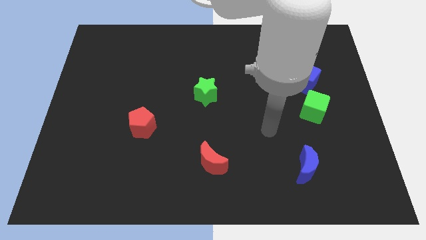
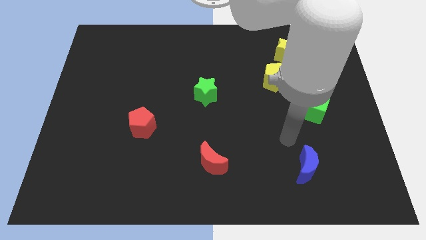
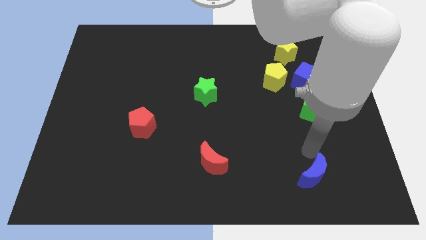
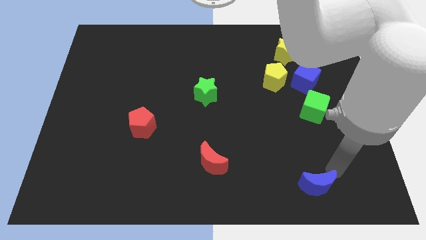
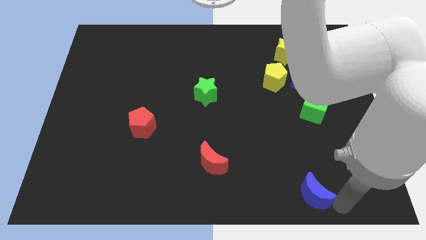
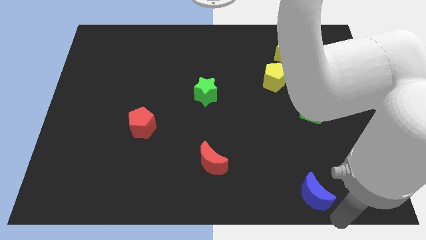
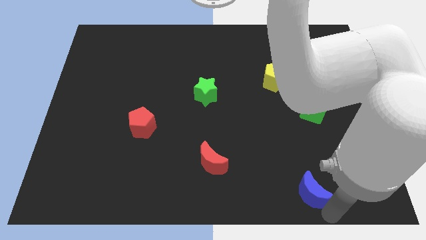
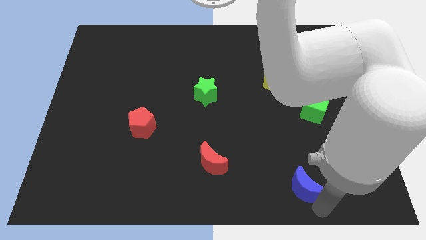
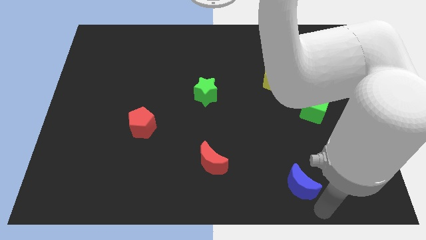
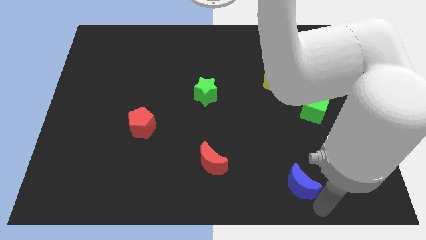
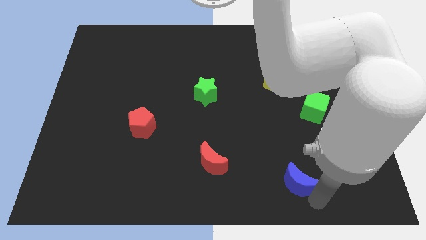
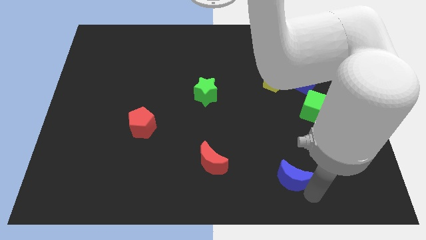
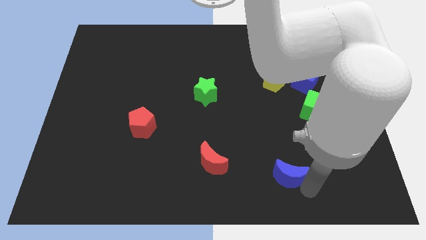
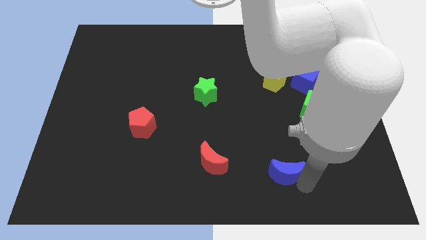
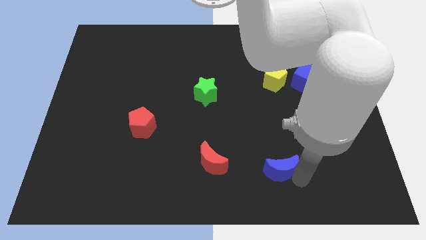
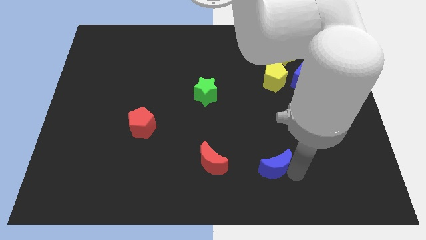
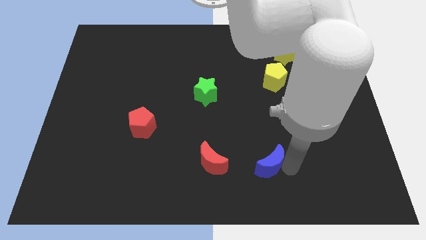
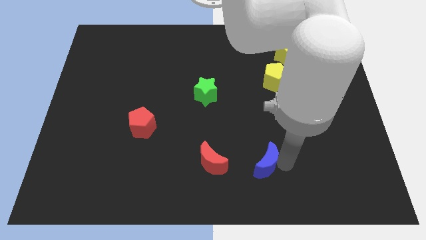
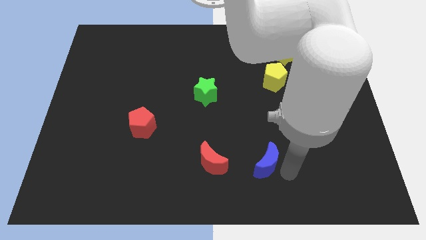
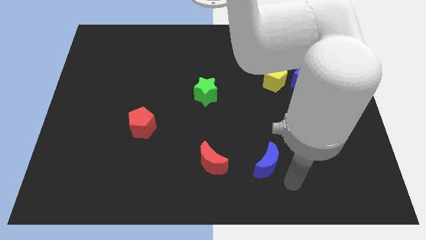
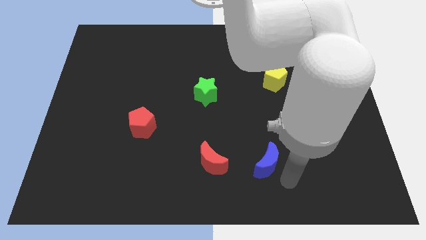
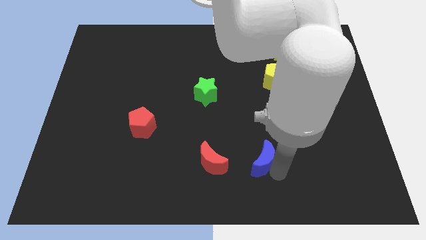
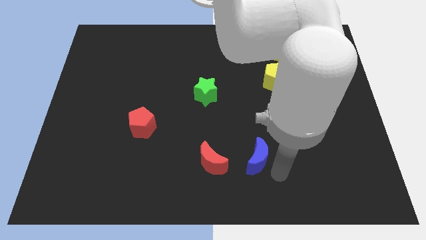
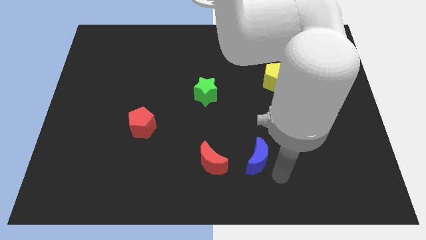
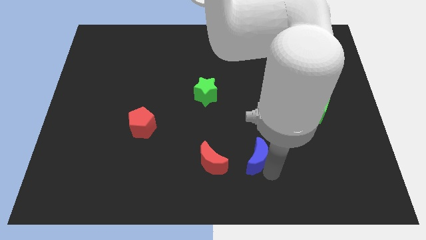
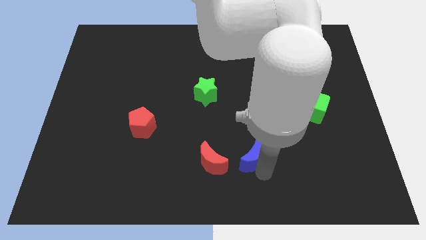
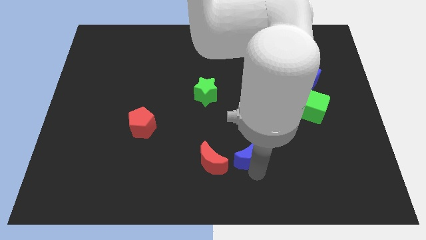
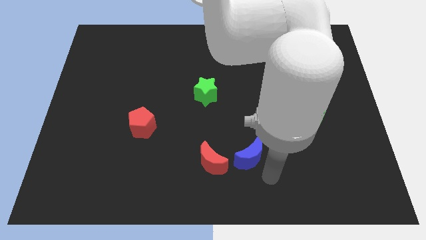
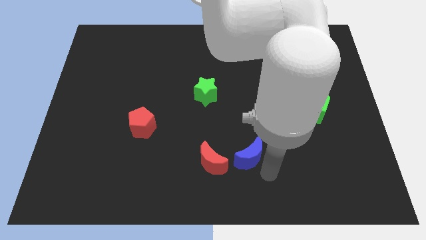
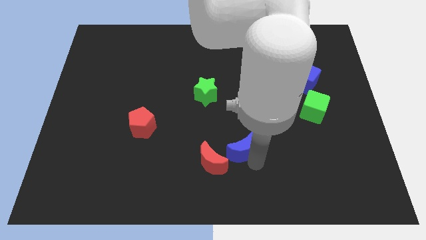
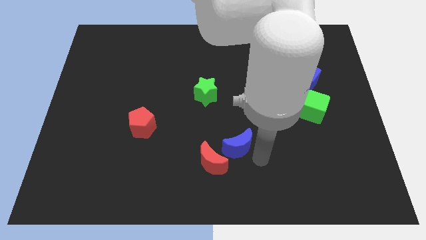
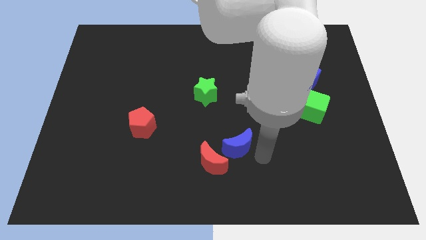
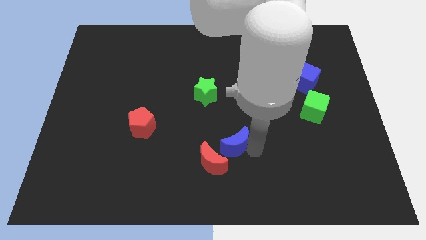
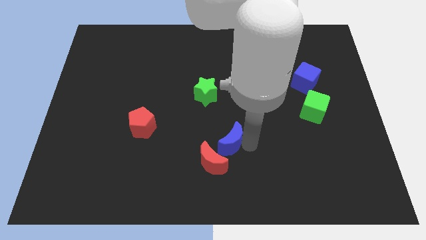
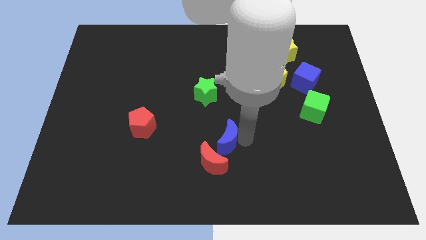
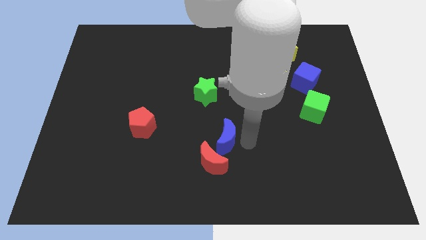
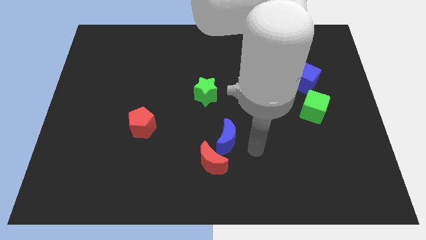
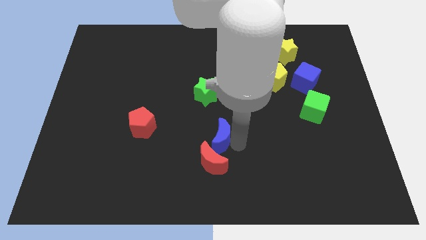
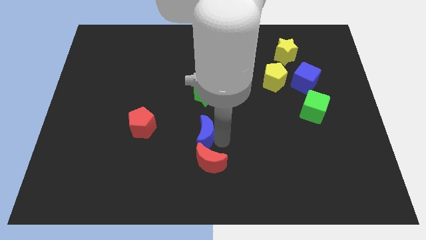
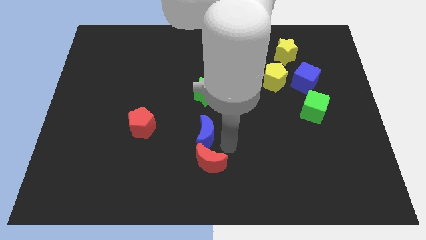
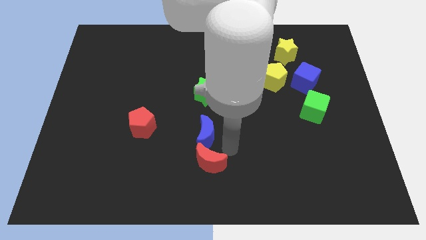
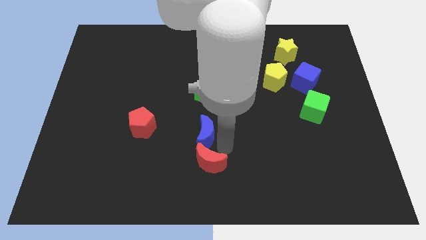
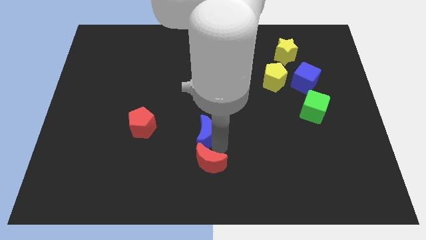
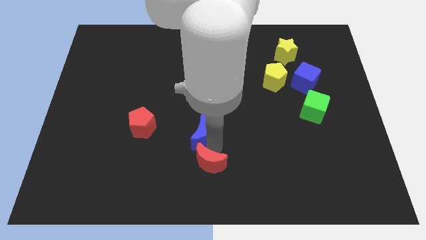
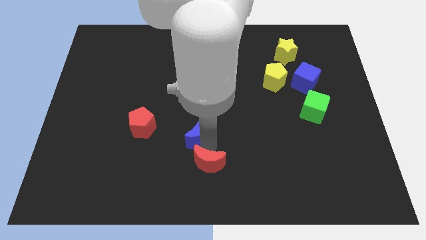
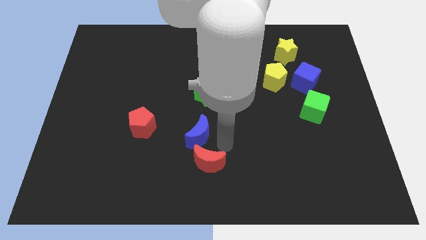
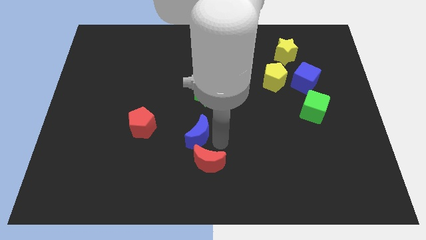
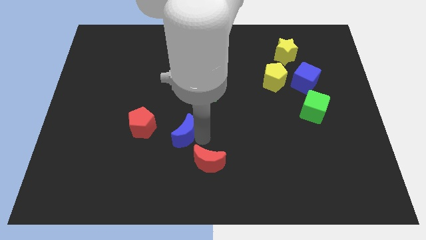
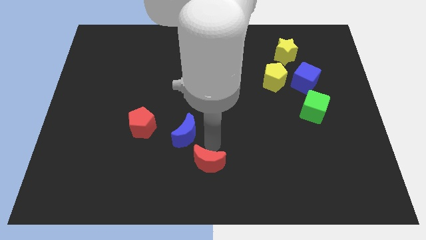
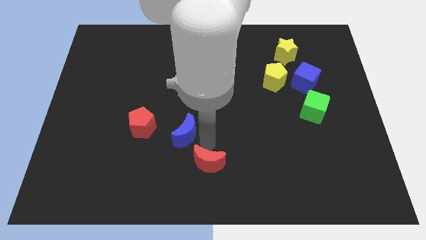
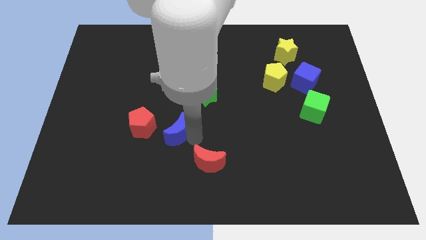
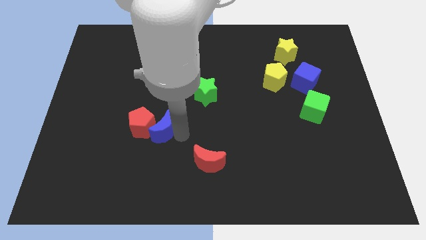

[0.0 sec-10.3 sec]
push the blue moon next to the red pentagon

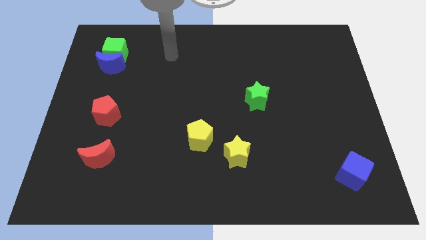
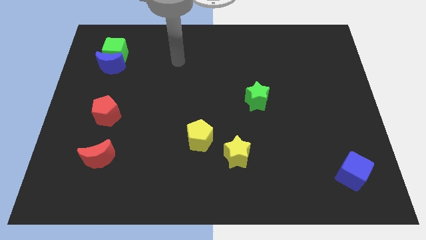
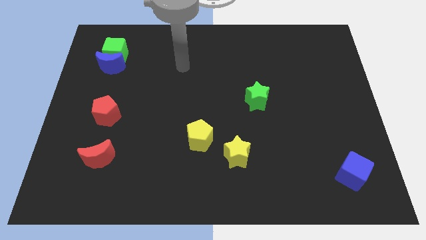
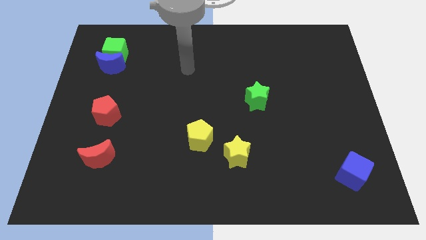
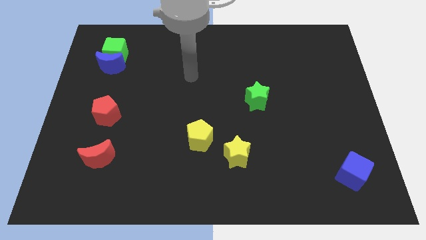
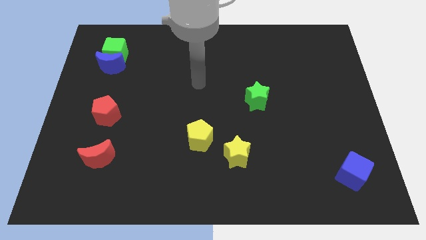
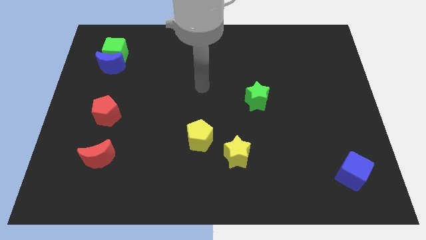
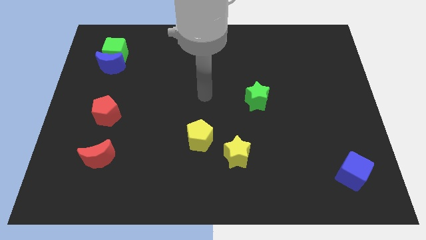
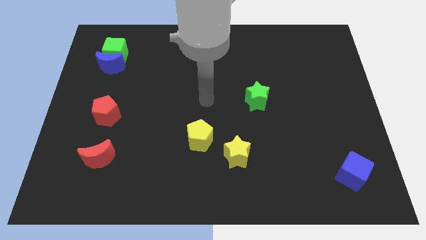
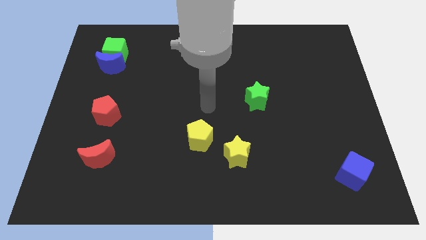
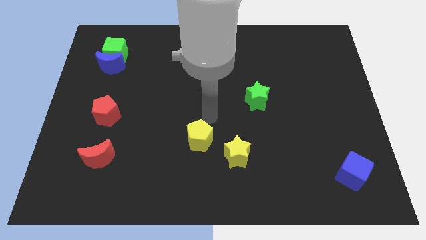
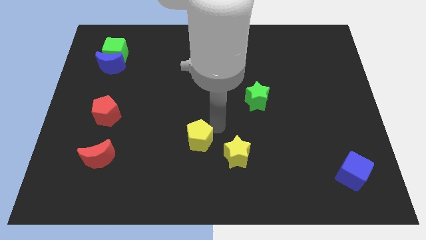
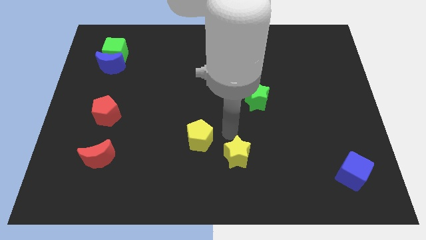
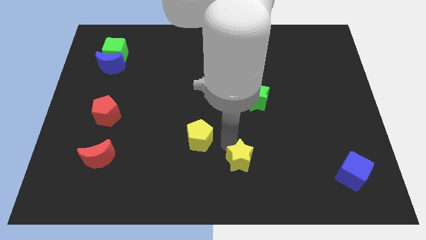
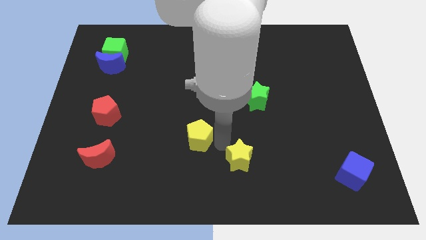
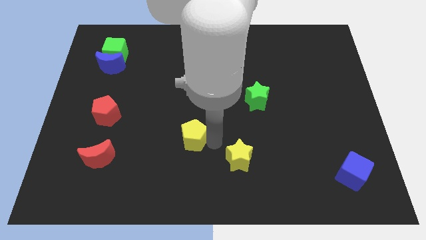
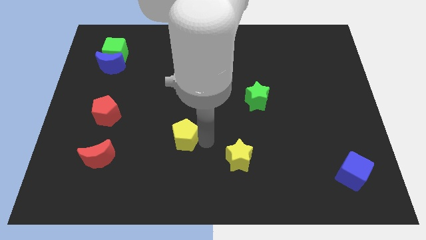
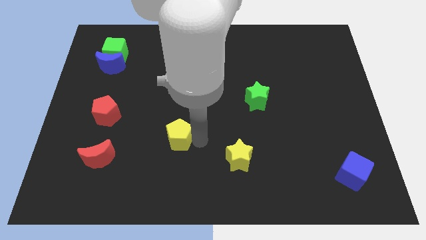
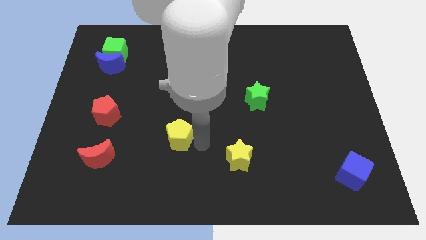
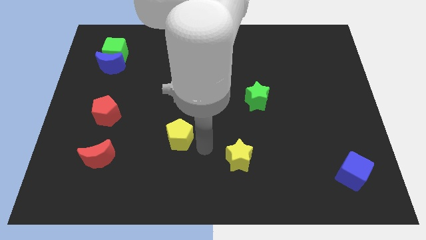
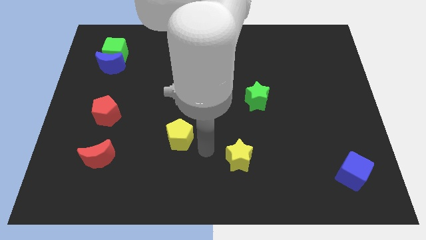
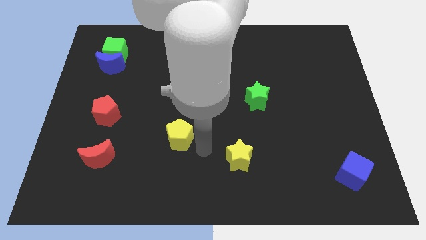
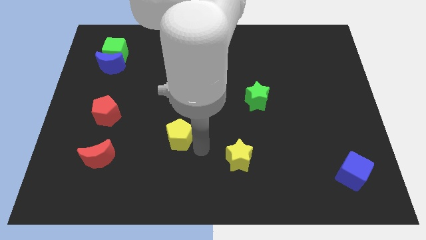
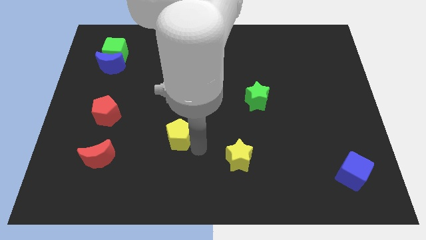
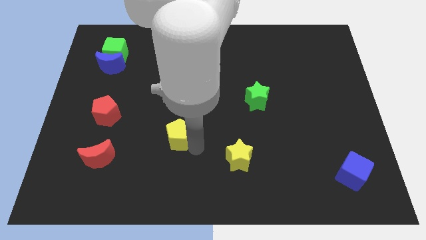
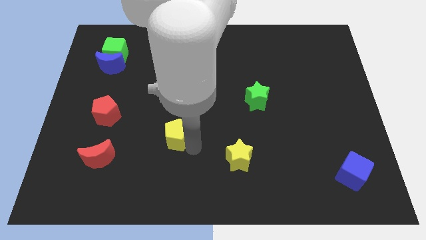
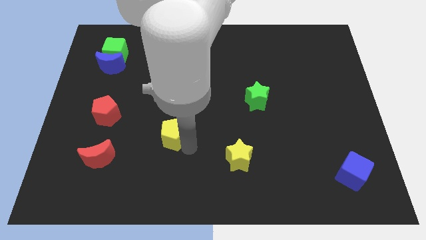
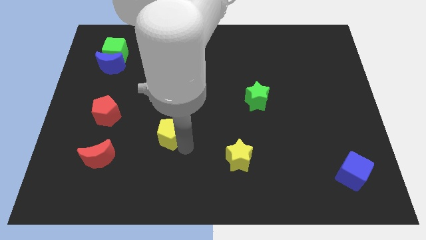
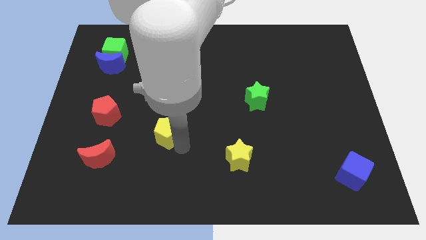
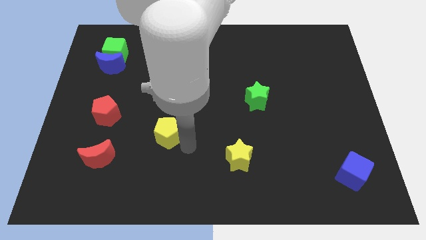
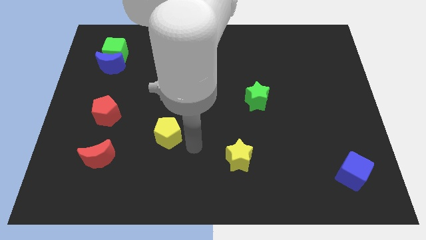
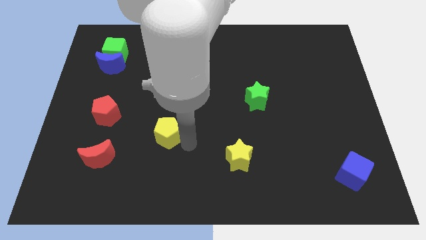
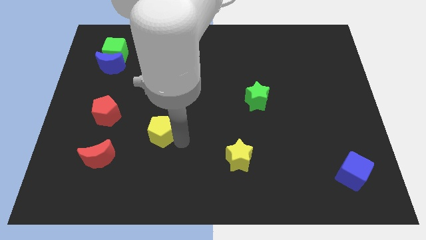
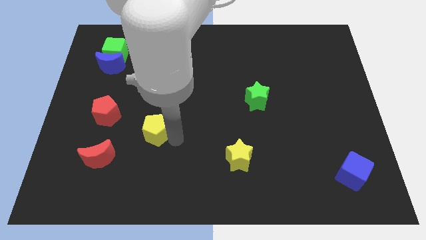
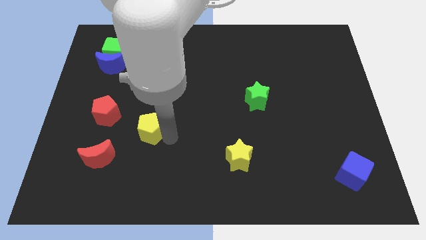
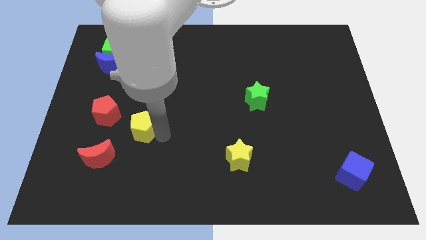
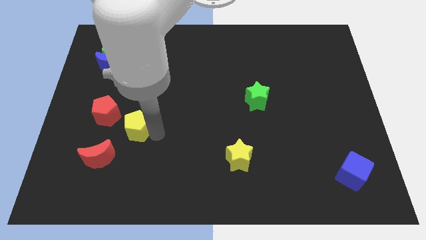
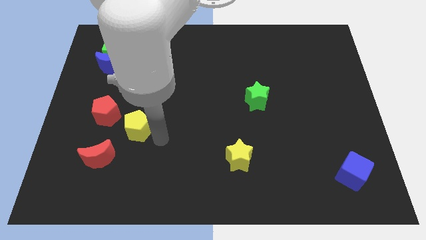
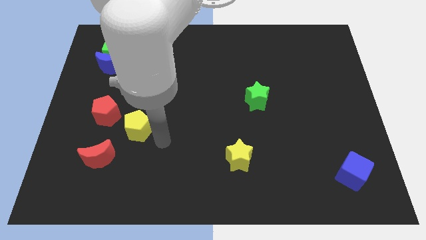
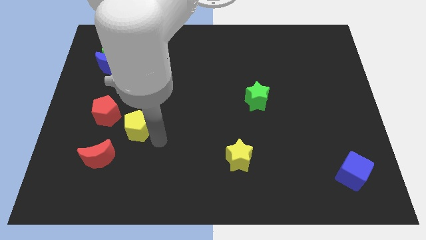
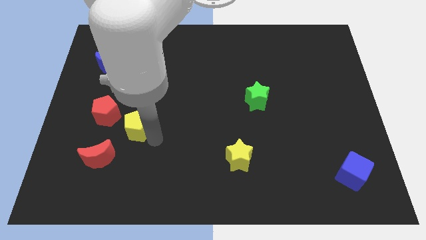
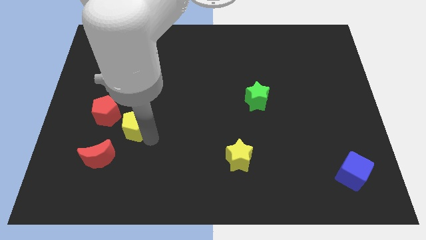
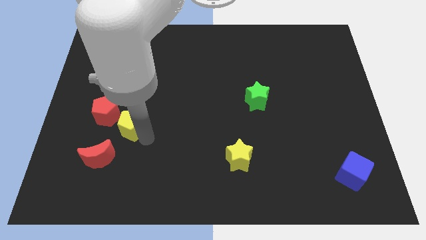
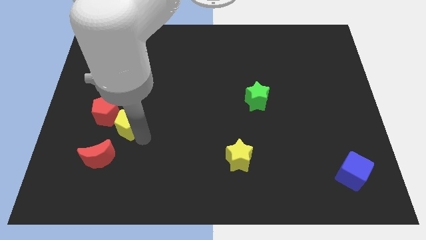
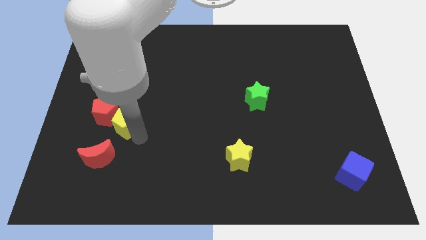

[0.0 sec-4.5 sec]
move the yellow pentagon close to the red pentagon
